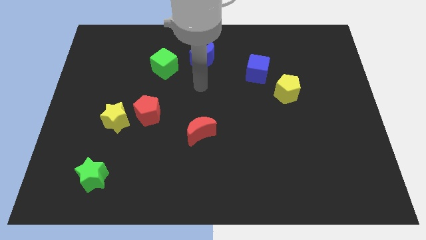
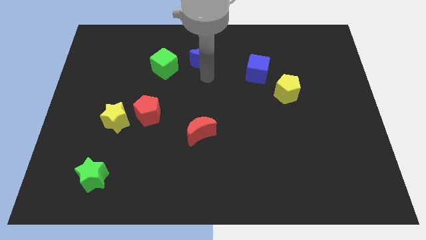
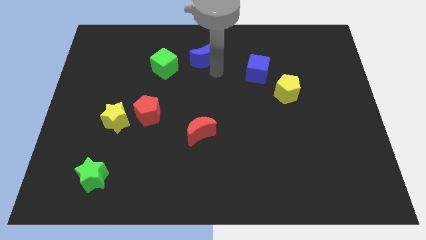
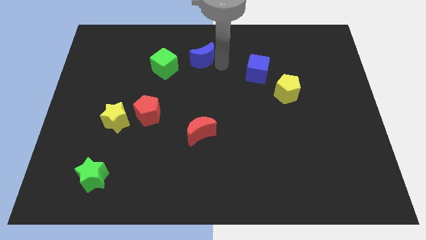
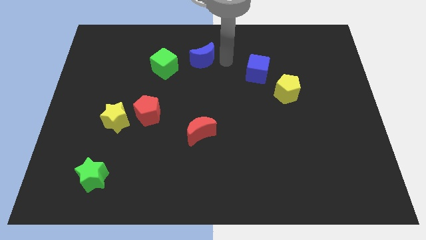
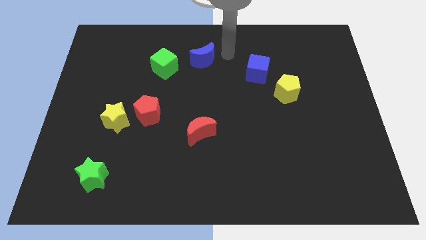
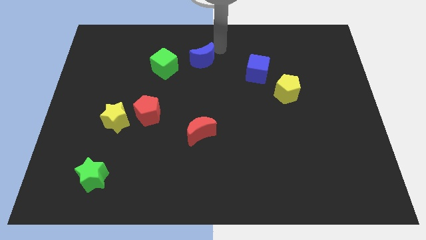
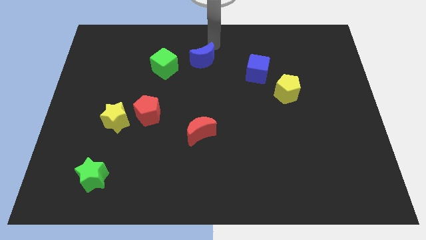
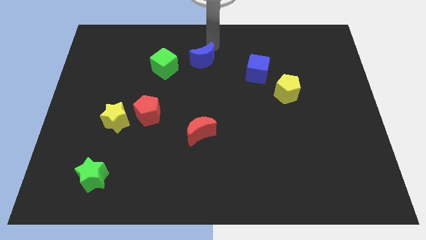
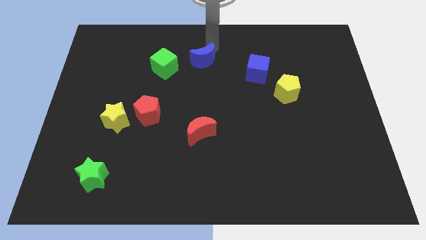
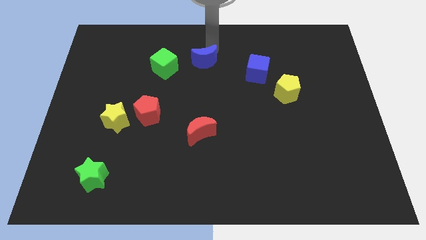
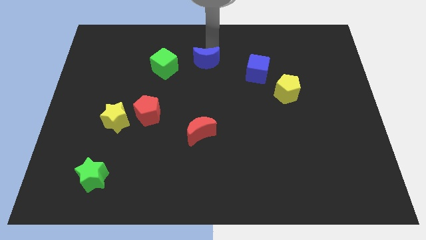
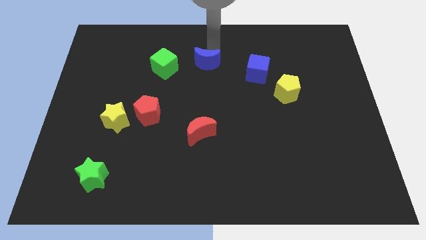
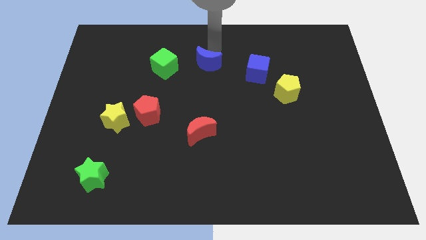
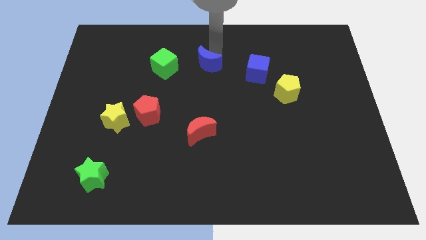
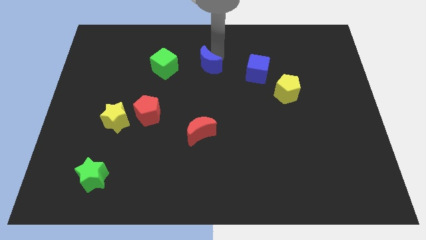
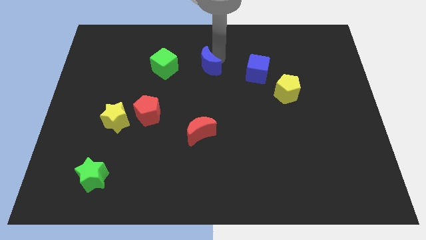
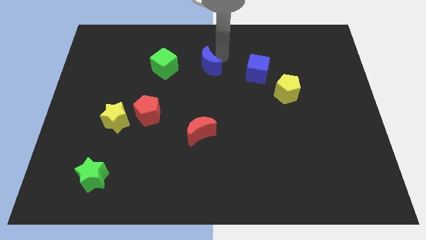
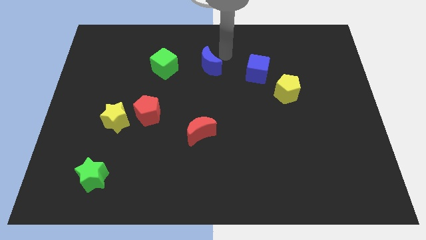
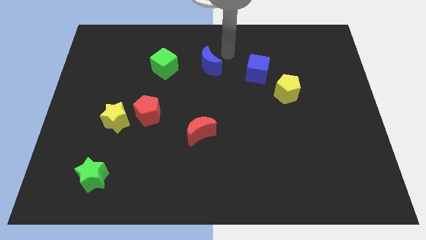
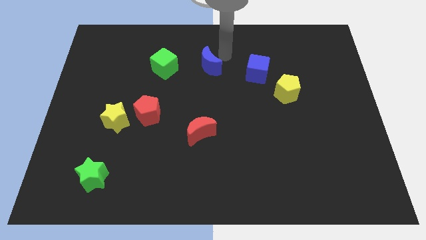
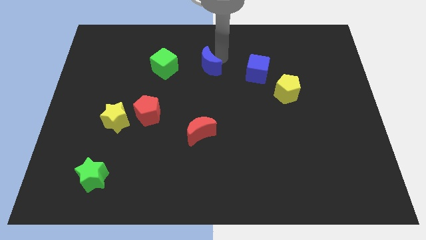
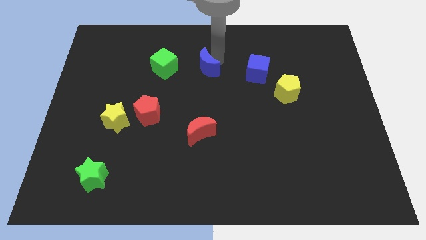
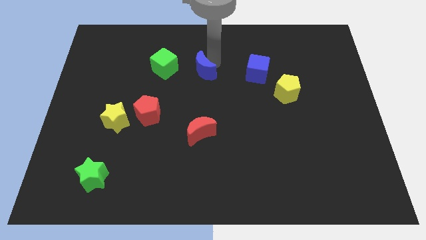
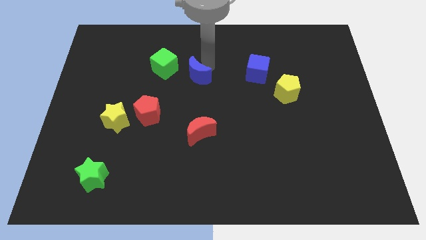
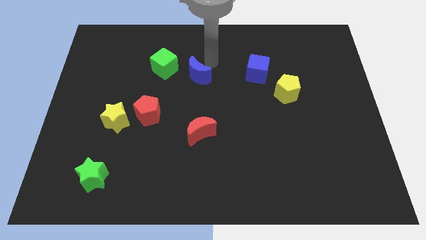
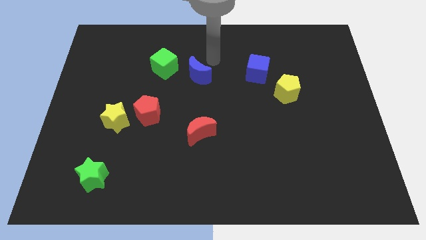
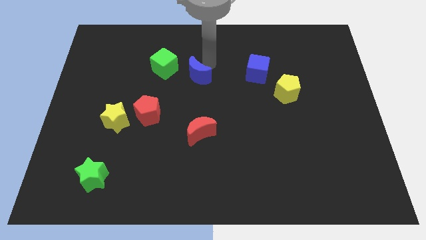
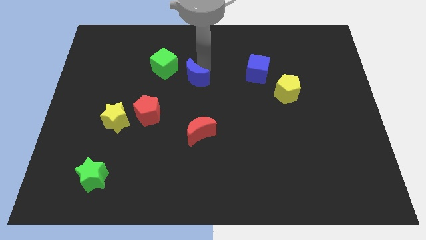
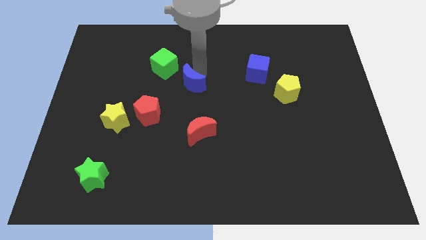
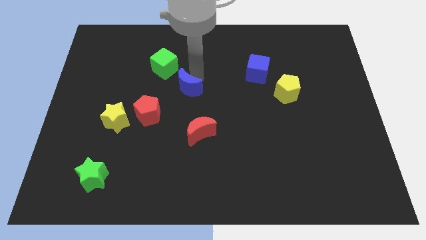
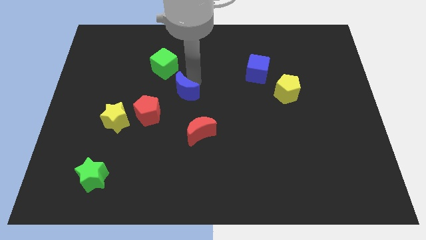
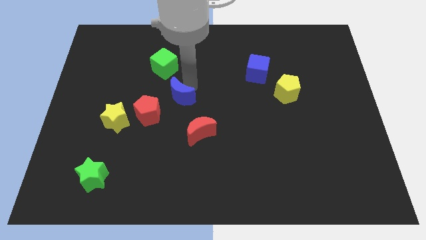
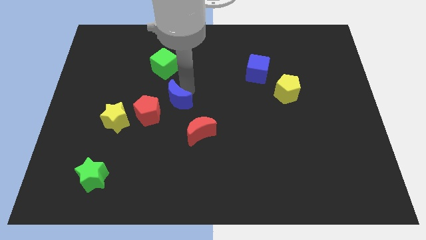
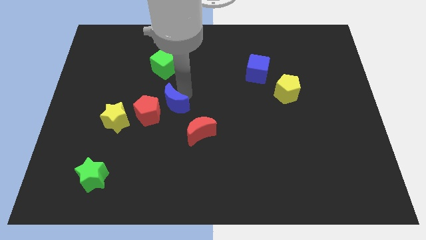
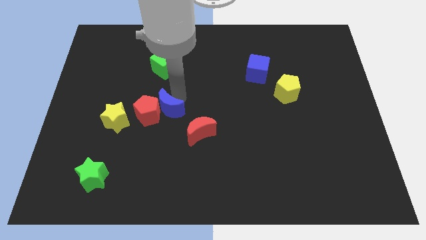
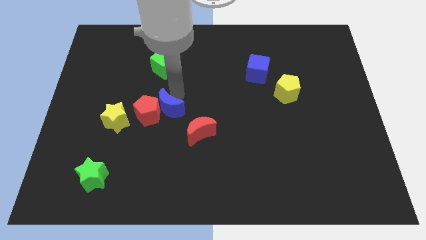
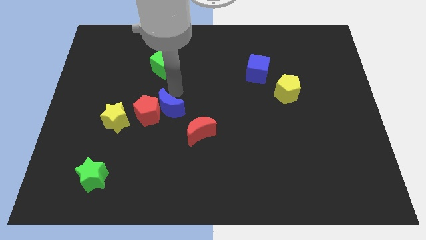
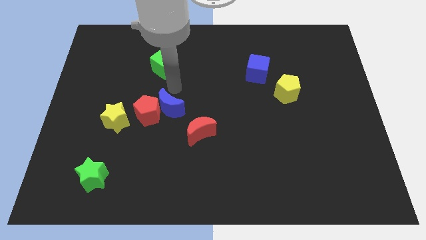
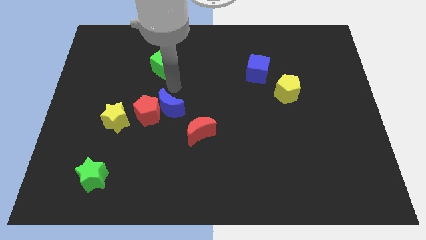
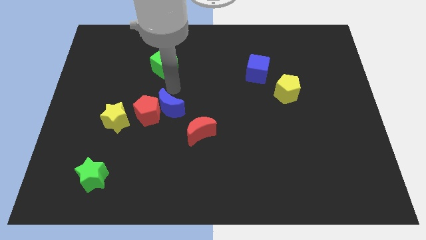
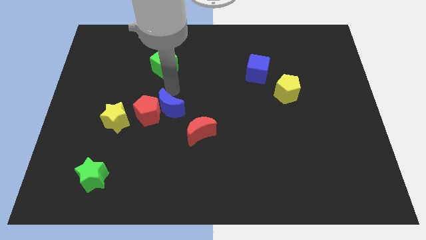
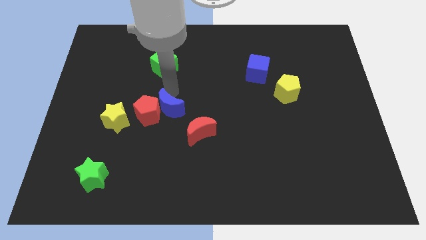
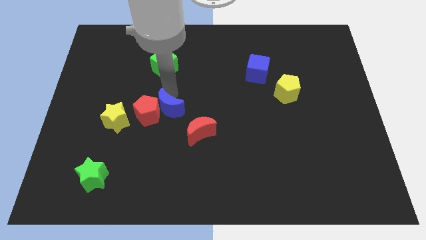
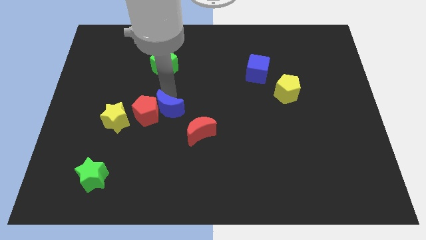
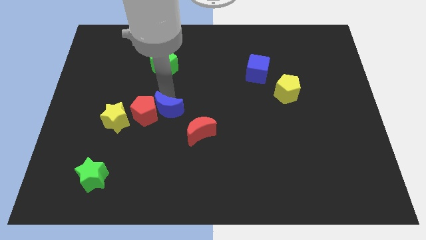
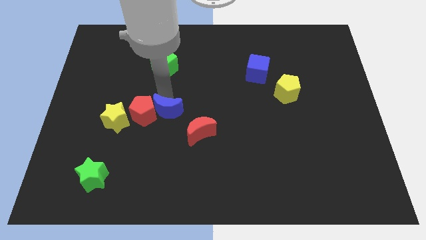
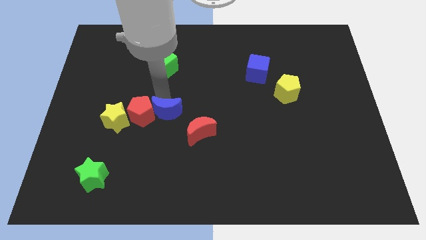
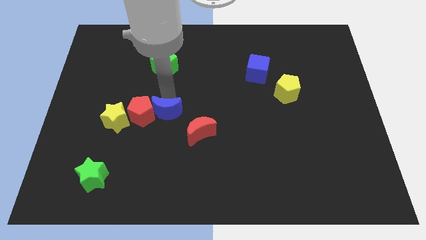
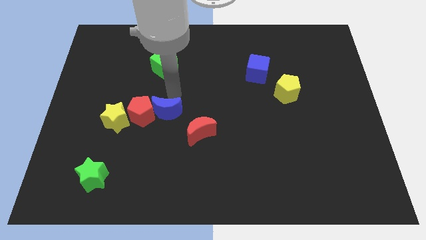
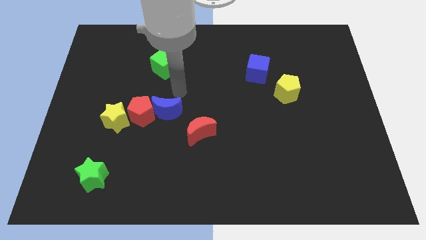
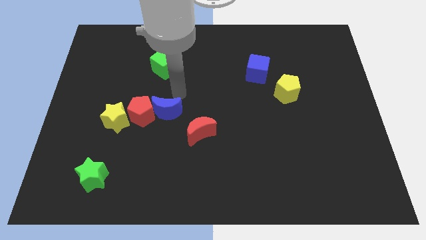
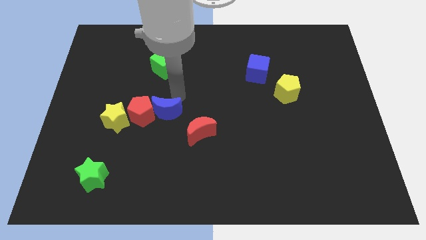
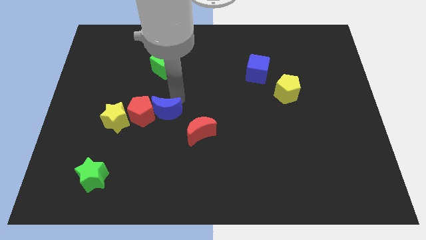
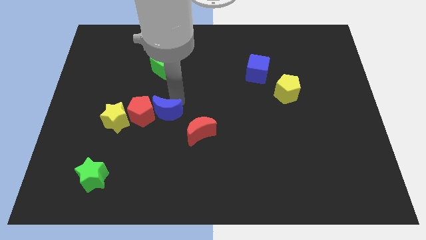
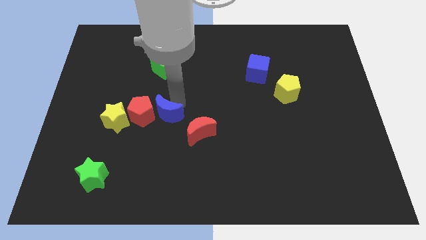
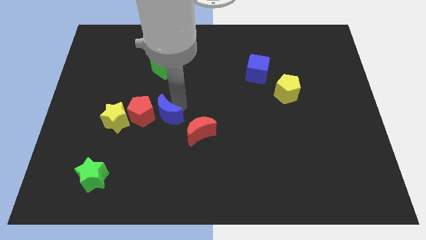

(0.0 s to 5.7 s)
slide the blue moon to the left side of the red moon

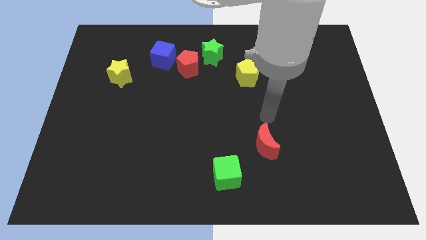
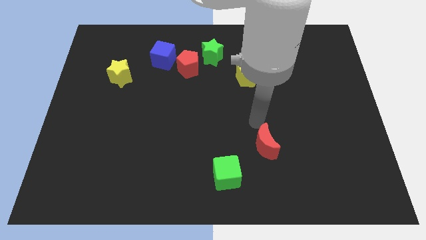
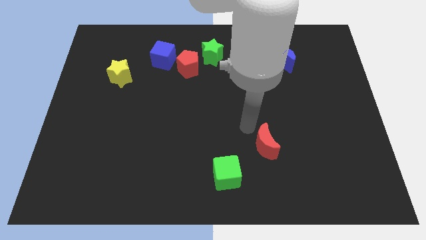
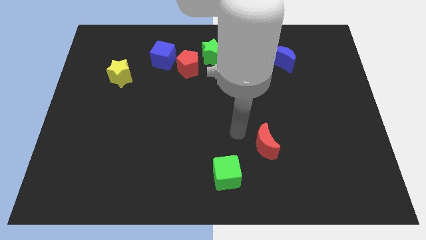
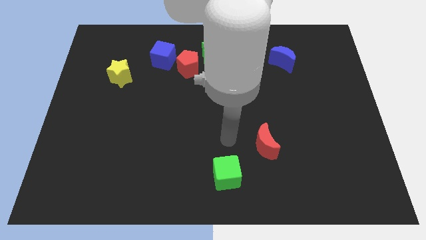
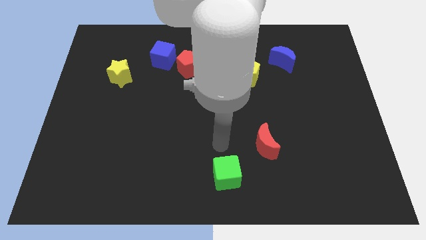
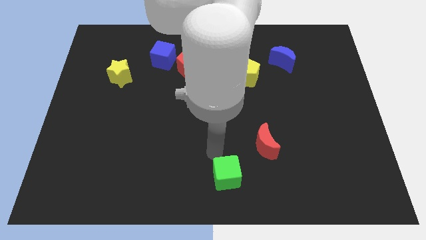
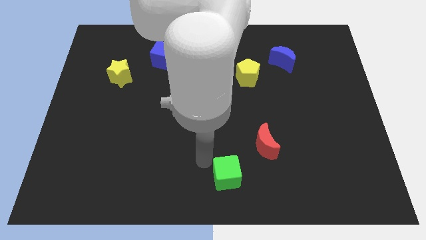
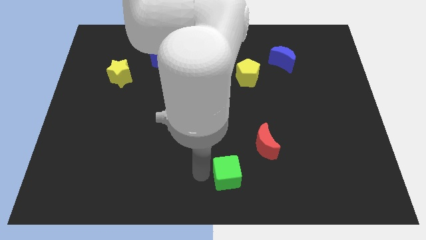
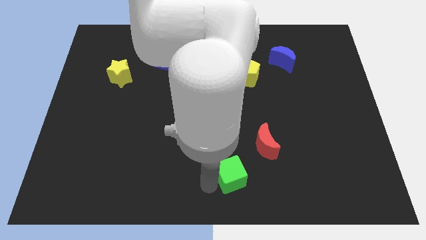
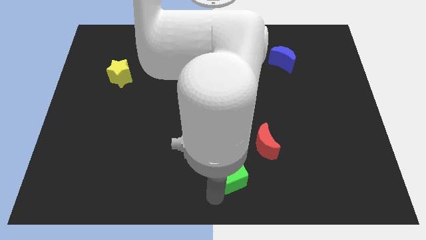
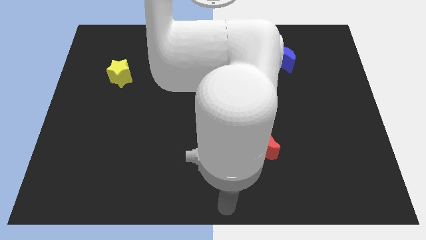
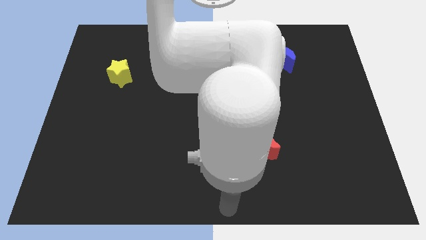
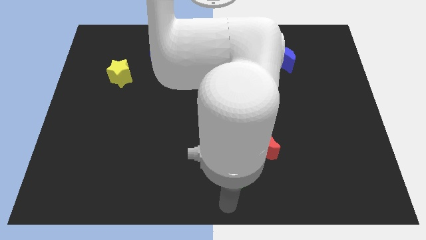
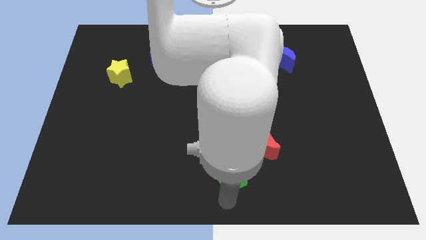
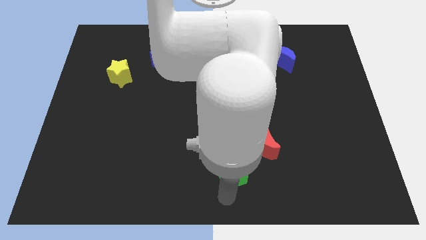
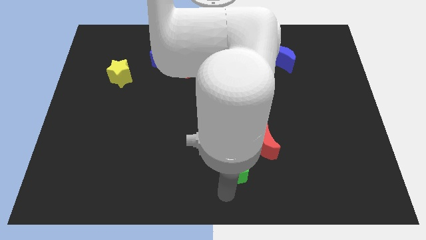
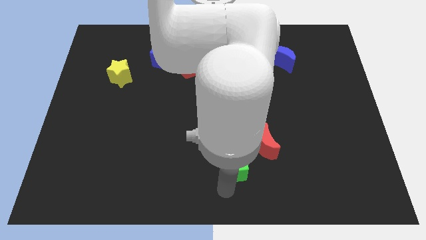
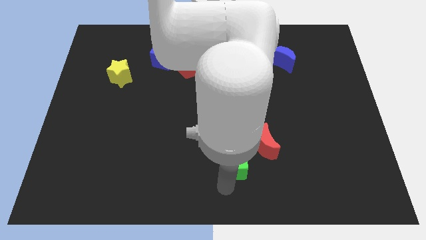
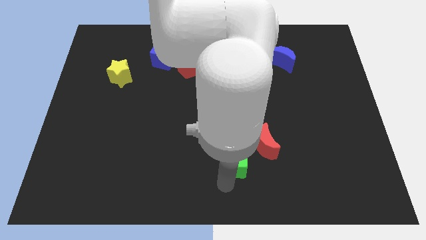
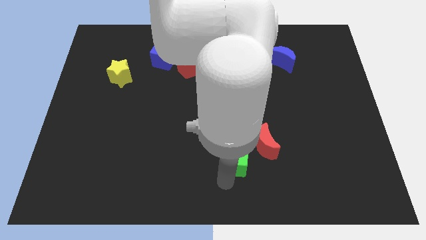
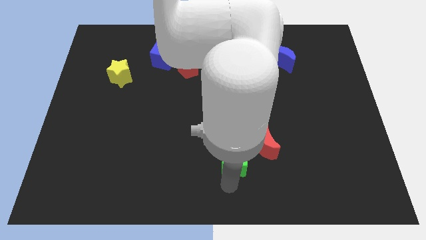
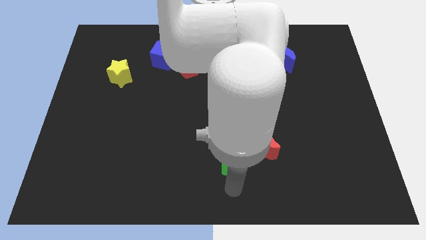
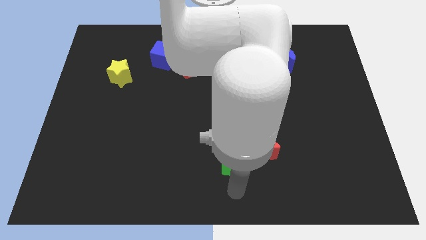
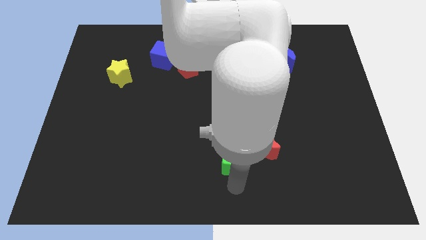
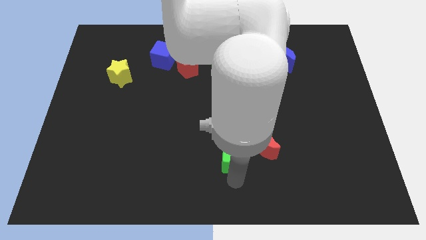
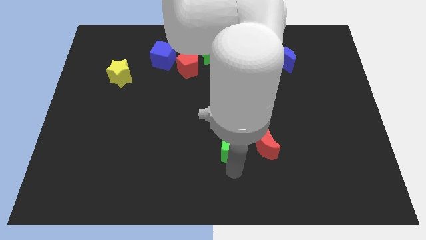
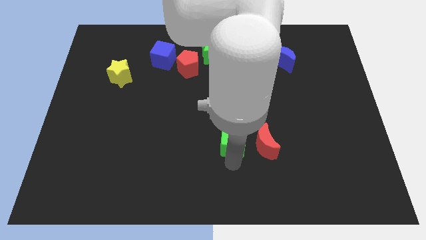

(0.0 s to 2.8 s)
slide the green cube to the top left side of the red moon
